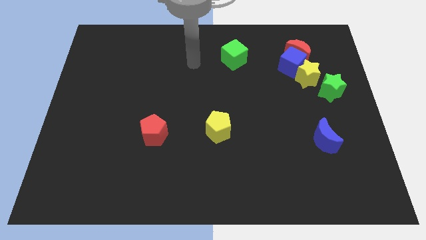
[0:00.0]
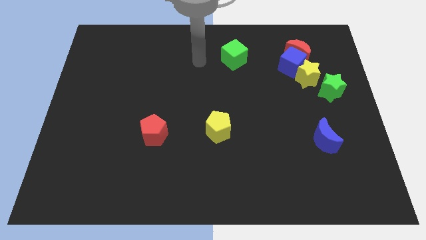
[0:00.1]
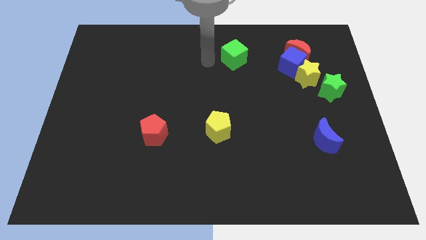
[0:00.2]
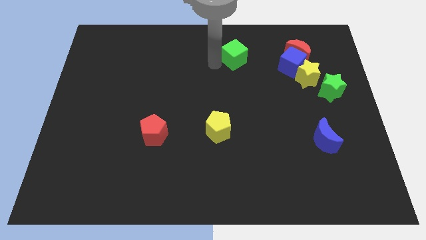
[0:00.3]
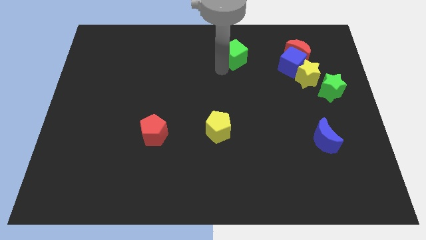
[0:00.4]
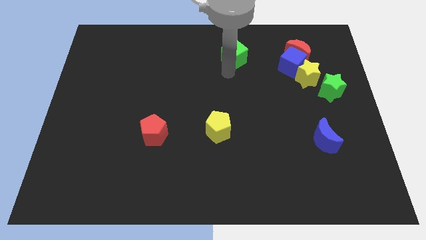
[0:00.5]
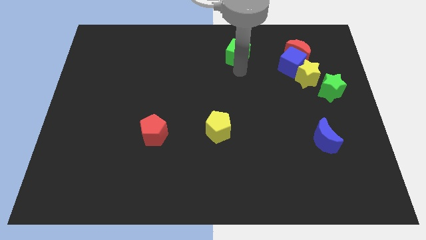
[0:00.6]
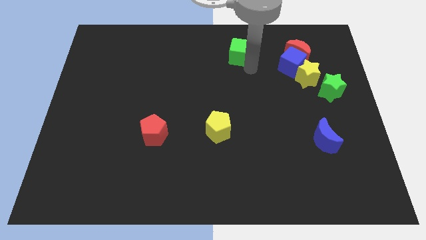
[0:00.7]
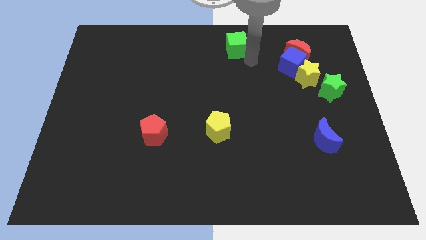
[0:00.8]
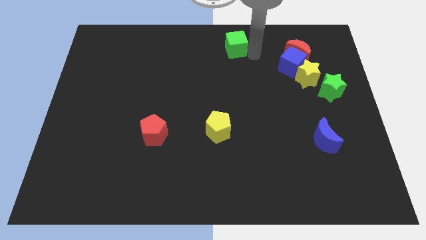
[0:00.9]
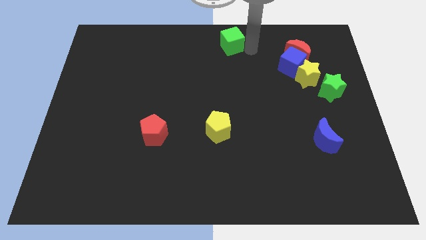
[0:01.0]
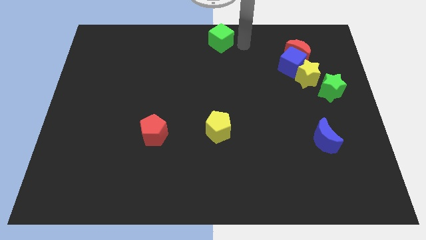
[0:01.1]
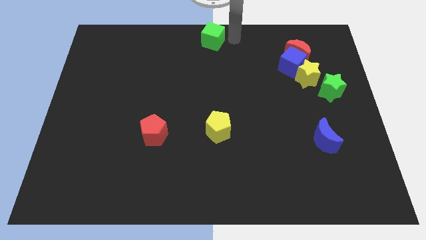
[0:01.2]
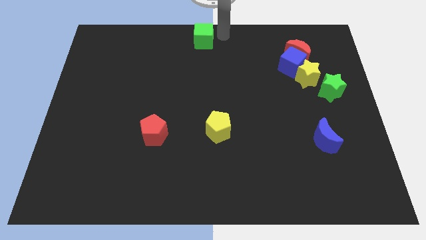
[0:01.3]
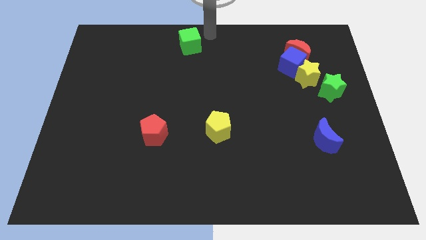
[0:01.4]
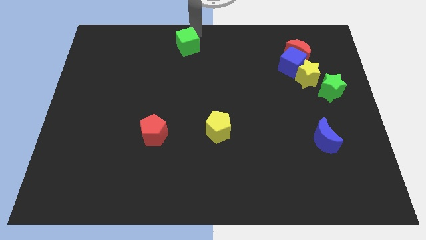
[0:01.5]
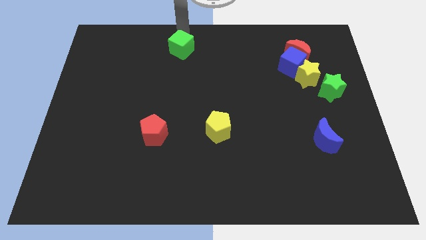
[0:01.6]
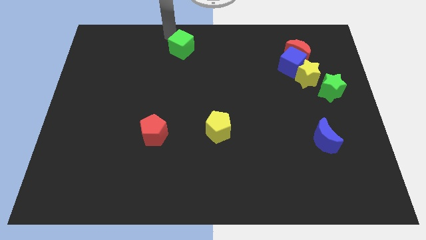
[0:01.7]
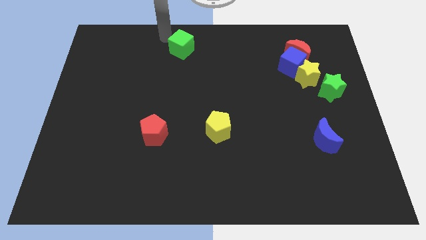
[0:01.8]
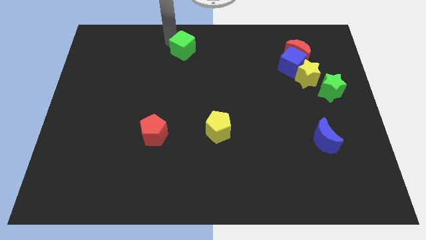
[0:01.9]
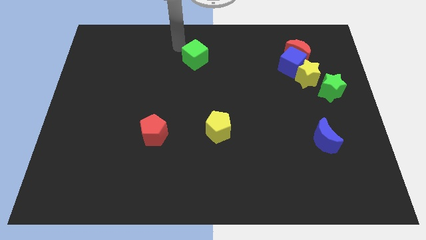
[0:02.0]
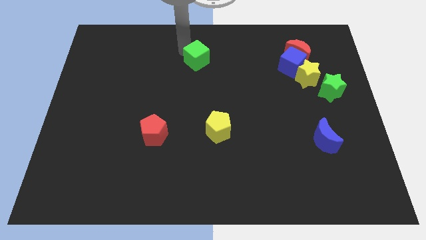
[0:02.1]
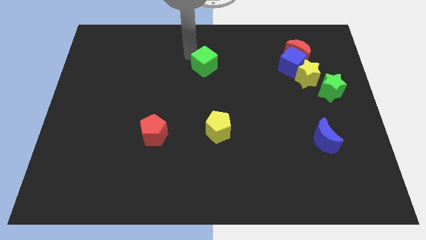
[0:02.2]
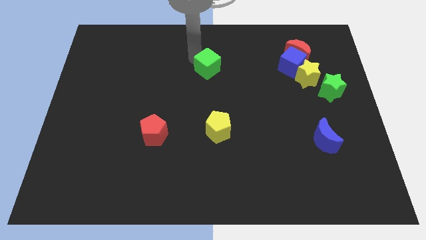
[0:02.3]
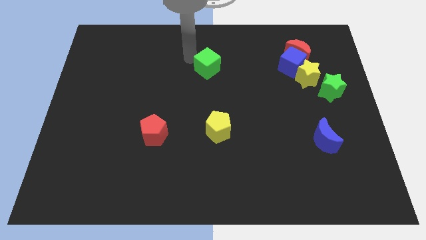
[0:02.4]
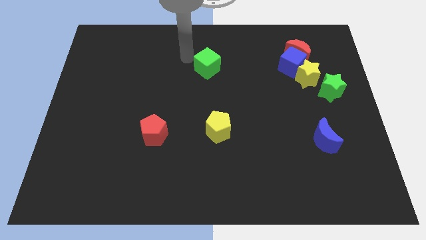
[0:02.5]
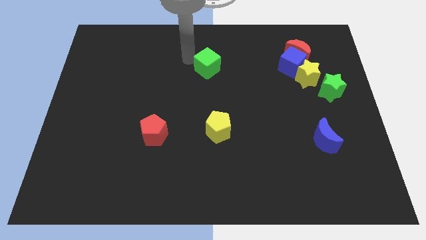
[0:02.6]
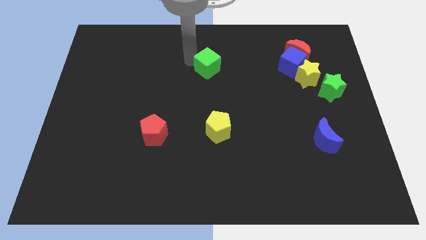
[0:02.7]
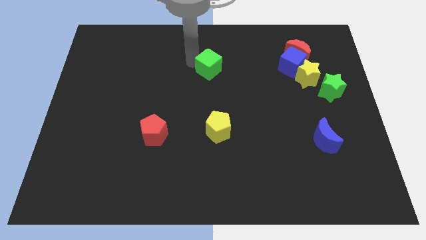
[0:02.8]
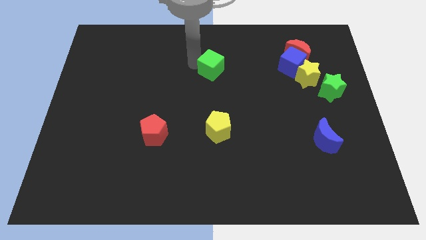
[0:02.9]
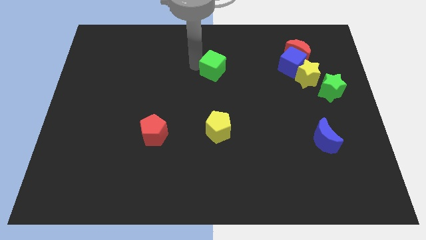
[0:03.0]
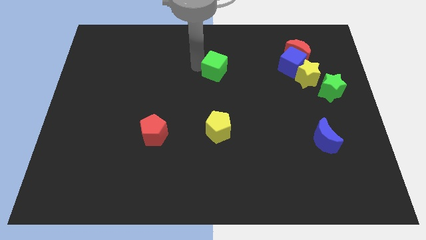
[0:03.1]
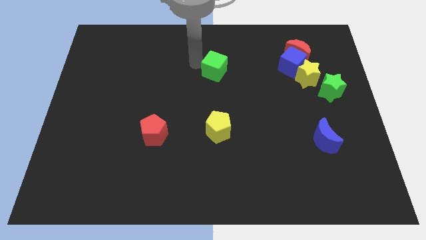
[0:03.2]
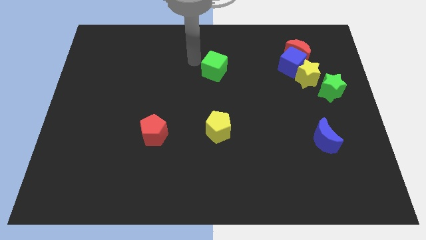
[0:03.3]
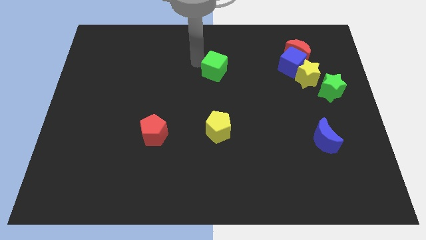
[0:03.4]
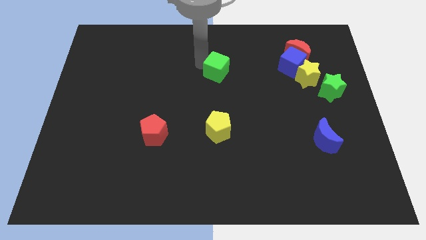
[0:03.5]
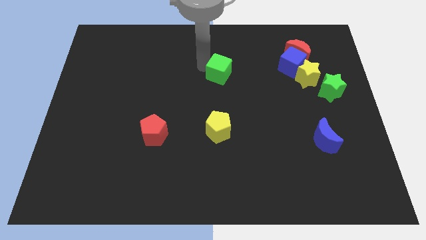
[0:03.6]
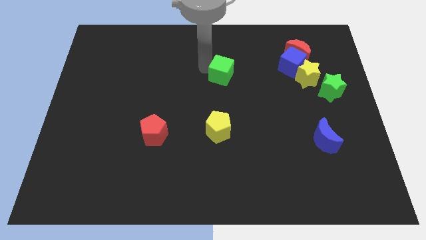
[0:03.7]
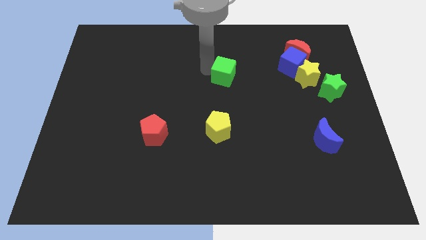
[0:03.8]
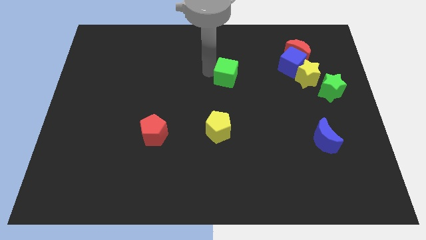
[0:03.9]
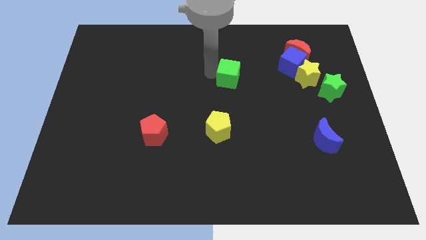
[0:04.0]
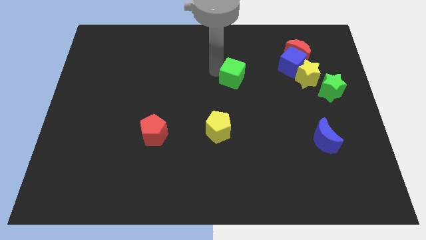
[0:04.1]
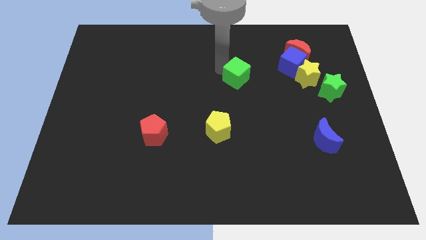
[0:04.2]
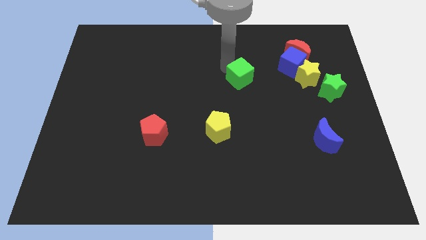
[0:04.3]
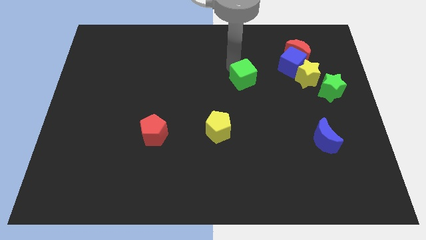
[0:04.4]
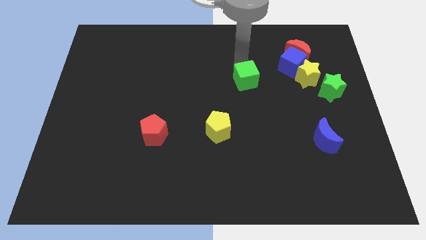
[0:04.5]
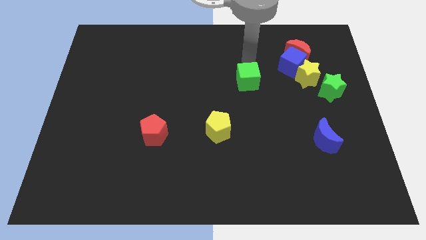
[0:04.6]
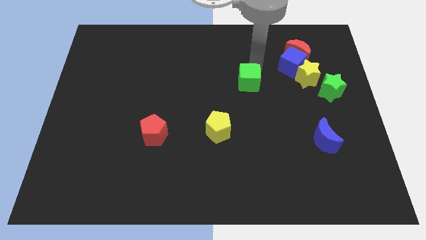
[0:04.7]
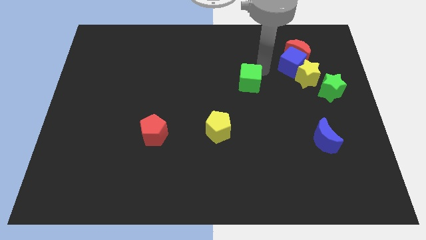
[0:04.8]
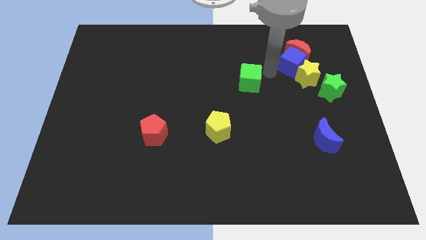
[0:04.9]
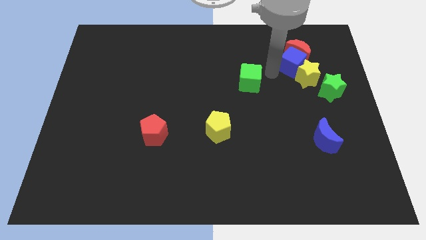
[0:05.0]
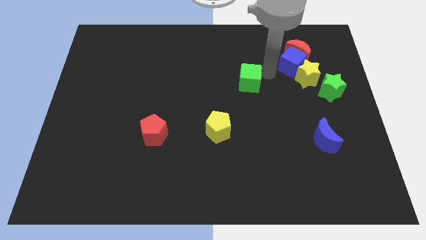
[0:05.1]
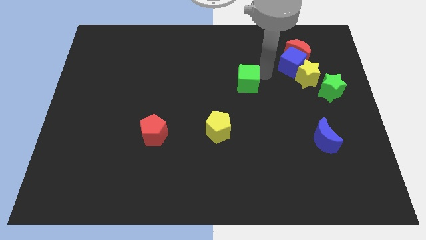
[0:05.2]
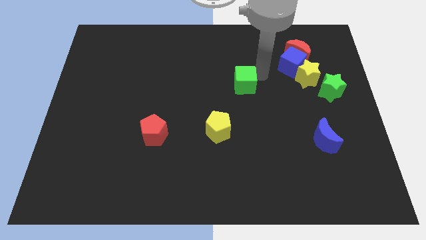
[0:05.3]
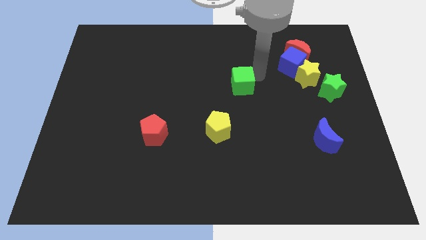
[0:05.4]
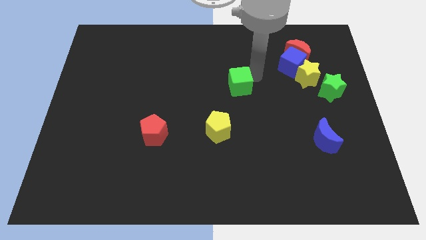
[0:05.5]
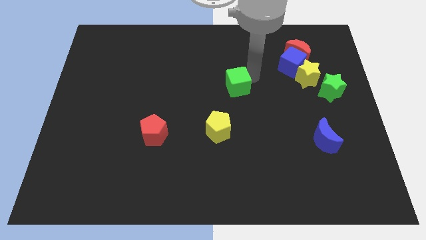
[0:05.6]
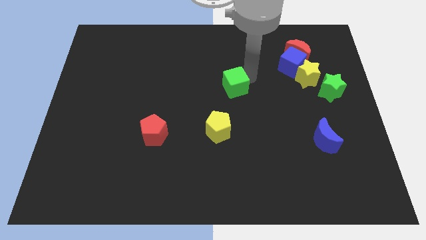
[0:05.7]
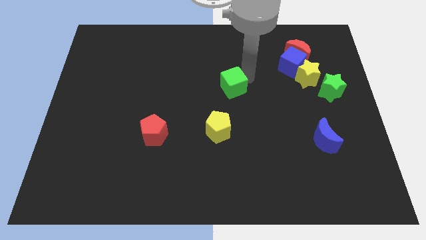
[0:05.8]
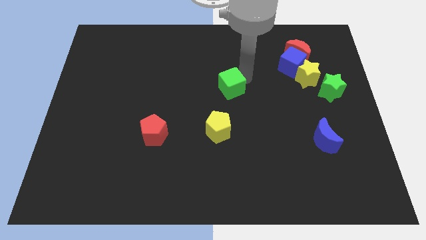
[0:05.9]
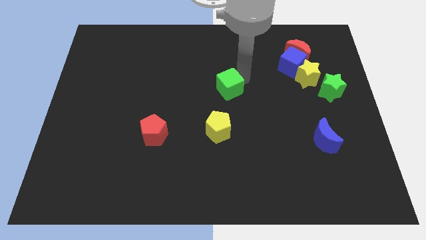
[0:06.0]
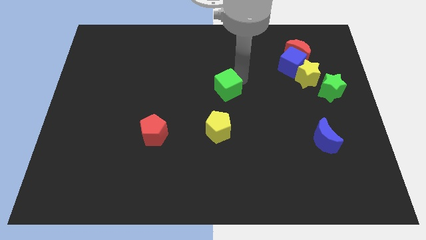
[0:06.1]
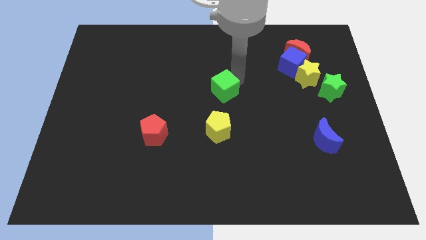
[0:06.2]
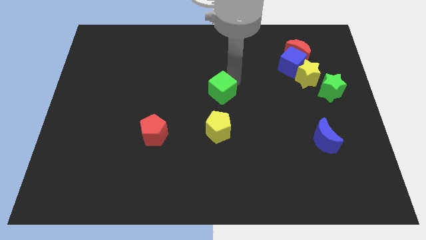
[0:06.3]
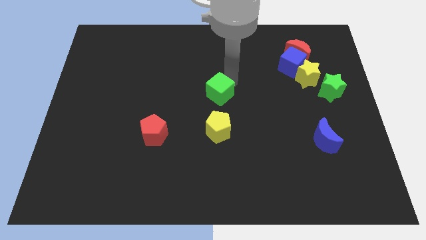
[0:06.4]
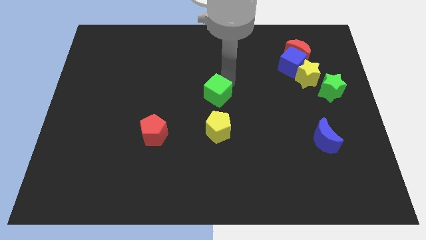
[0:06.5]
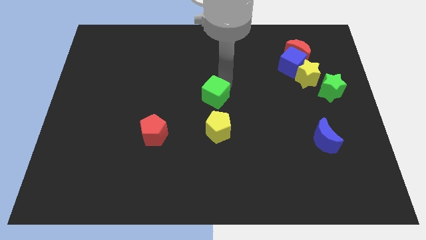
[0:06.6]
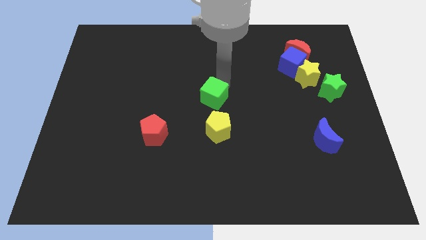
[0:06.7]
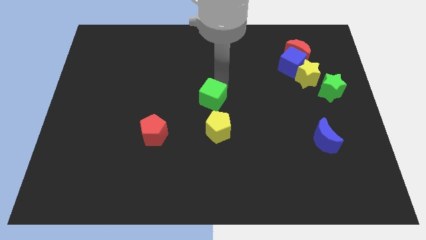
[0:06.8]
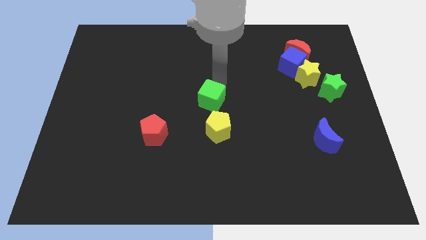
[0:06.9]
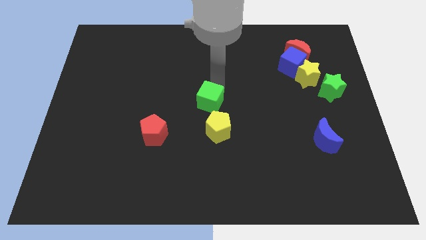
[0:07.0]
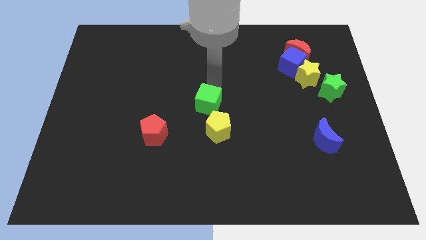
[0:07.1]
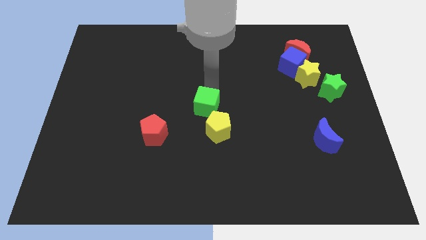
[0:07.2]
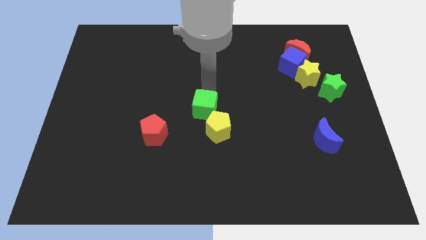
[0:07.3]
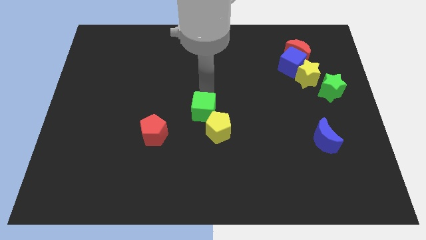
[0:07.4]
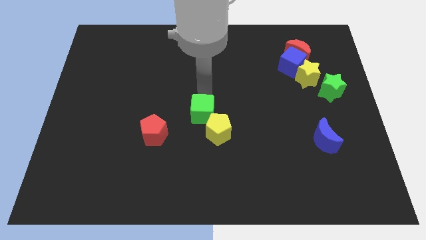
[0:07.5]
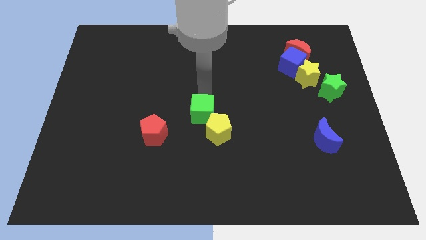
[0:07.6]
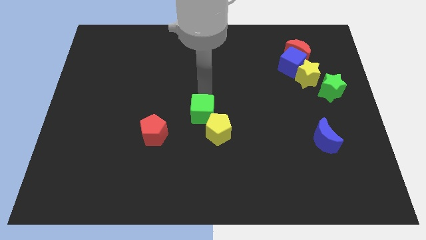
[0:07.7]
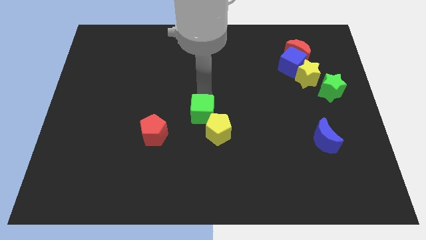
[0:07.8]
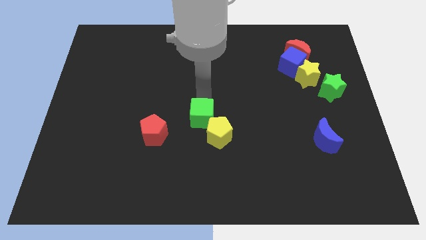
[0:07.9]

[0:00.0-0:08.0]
push the green cube to the right of the red pentagon
